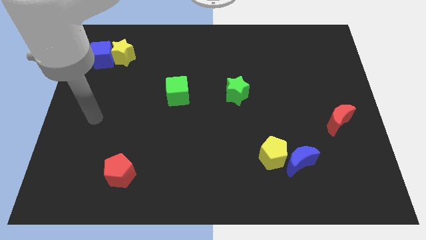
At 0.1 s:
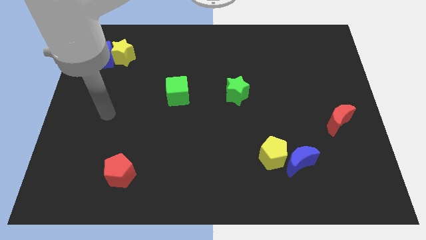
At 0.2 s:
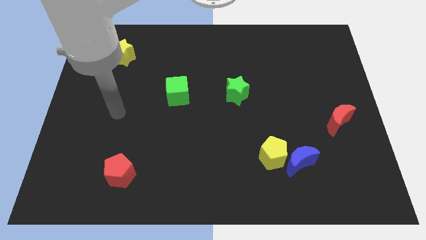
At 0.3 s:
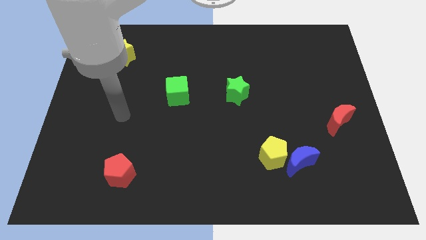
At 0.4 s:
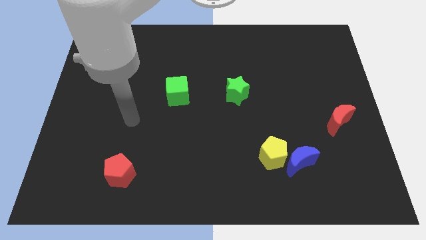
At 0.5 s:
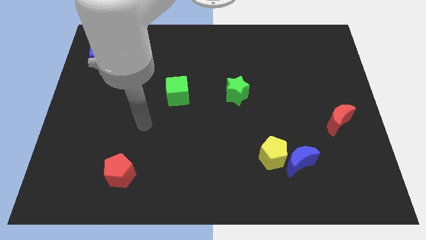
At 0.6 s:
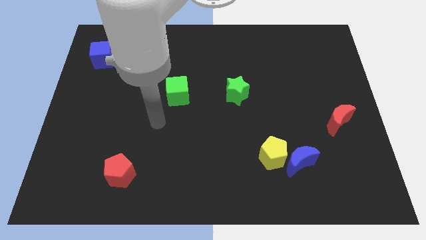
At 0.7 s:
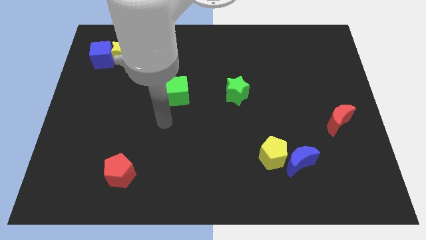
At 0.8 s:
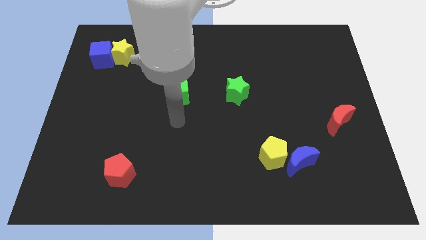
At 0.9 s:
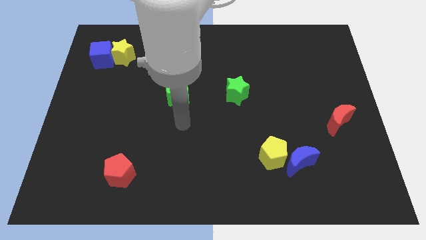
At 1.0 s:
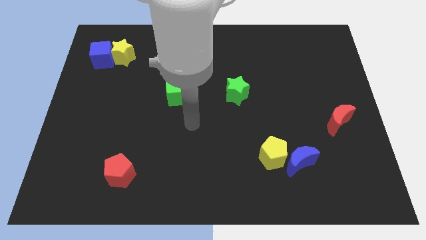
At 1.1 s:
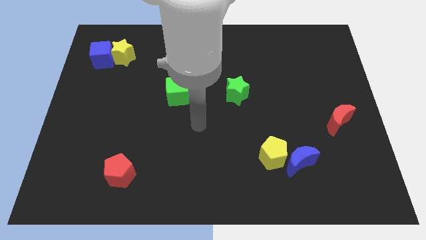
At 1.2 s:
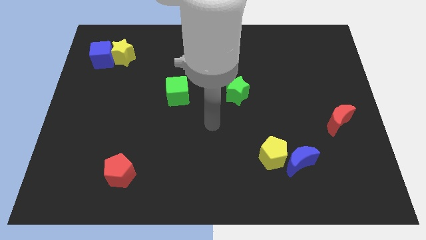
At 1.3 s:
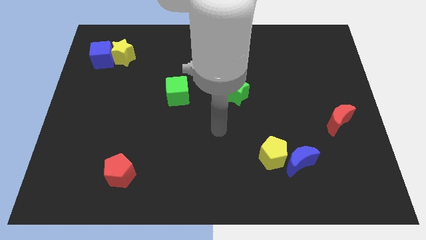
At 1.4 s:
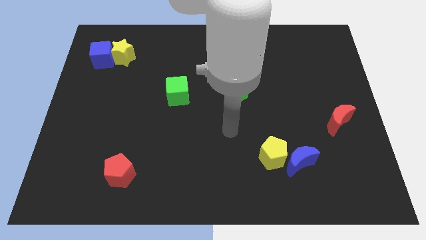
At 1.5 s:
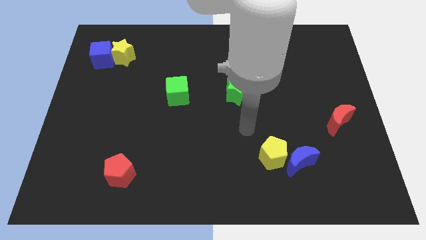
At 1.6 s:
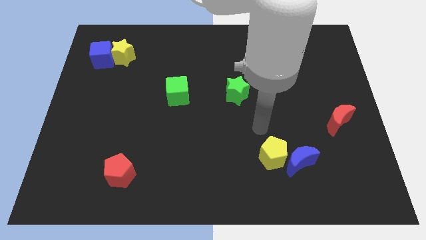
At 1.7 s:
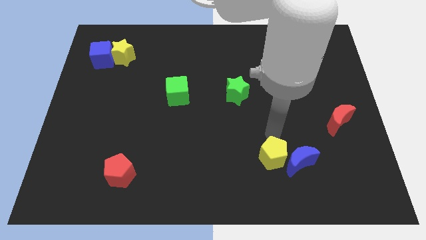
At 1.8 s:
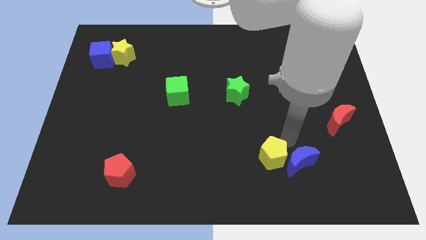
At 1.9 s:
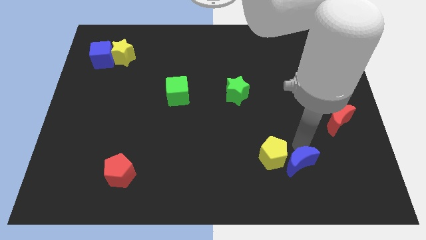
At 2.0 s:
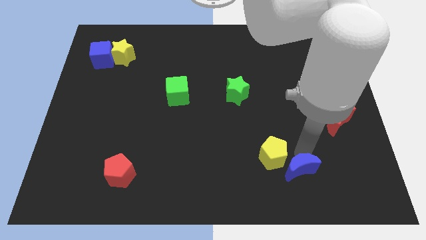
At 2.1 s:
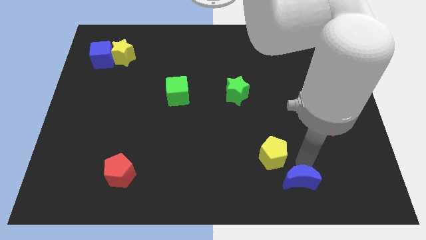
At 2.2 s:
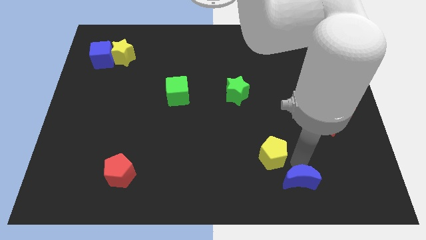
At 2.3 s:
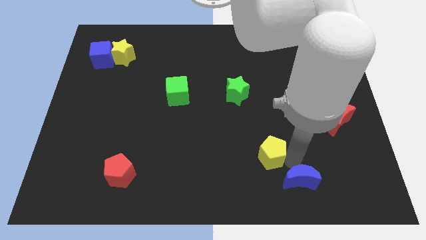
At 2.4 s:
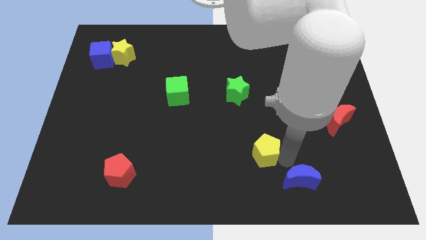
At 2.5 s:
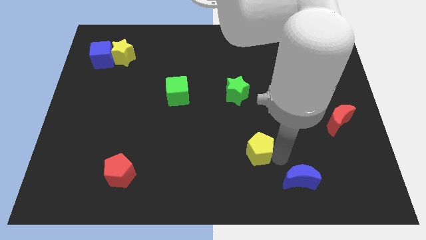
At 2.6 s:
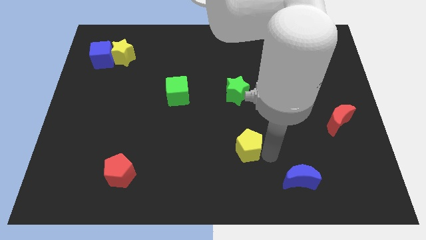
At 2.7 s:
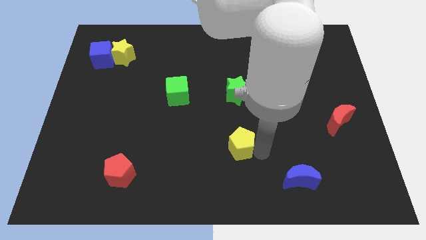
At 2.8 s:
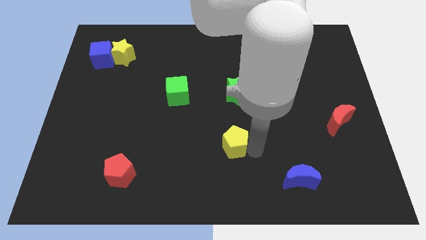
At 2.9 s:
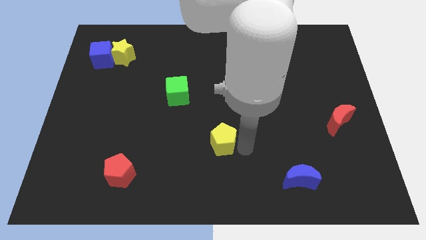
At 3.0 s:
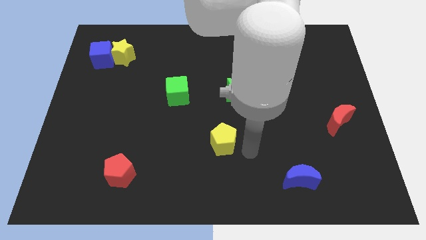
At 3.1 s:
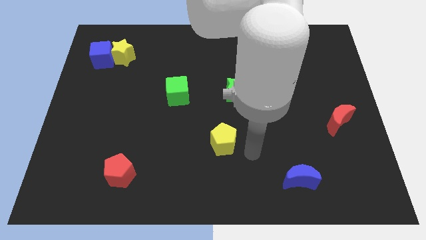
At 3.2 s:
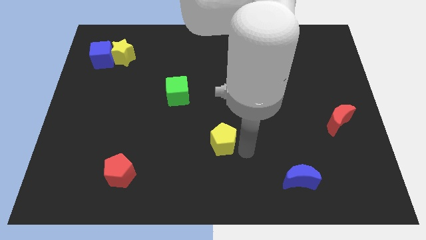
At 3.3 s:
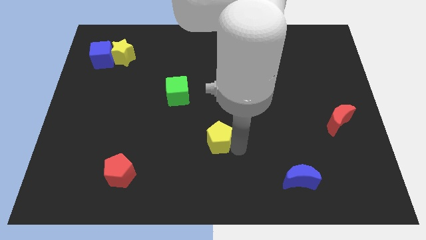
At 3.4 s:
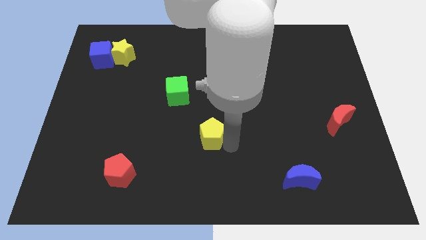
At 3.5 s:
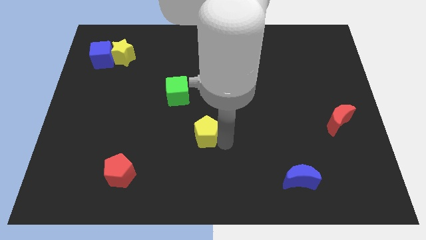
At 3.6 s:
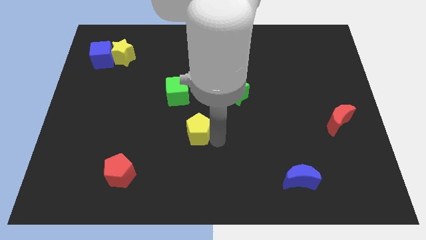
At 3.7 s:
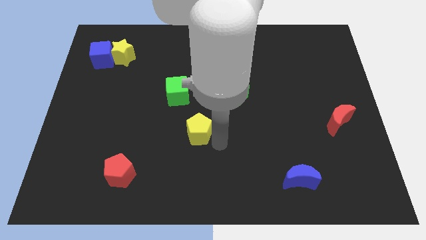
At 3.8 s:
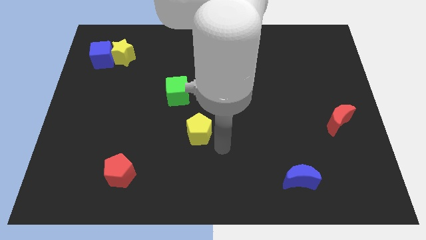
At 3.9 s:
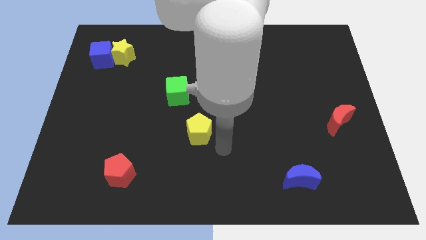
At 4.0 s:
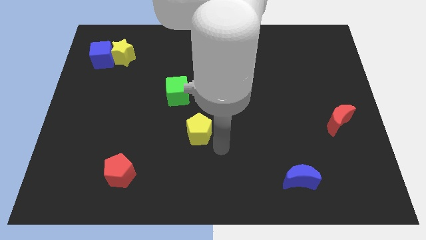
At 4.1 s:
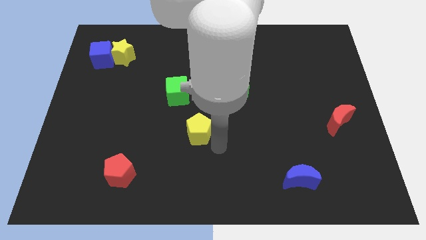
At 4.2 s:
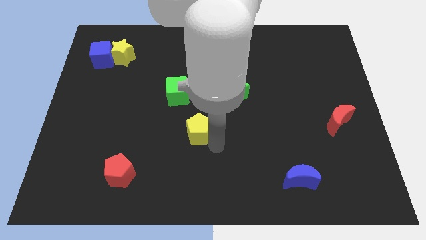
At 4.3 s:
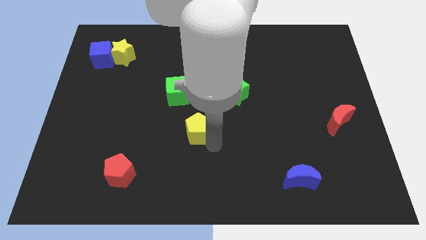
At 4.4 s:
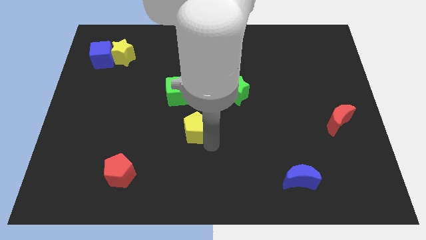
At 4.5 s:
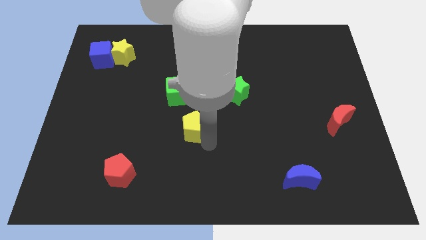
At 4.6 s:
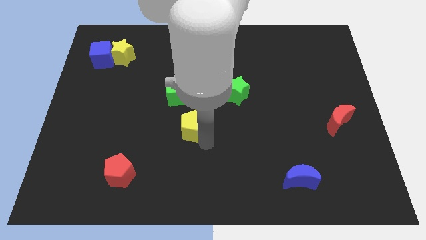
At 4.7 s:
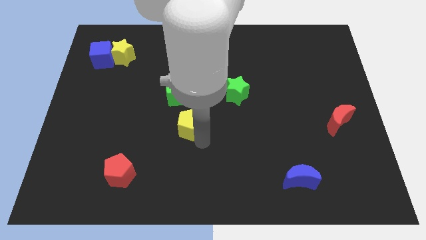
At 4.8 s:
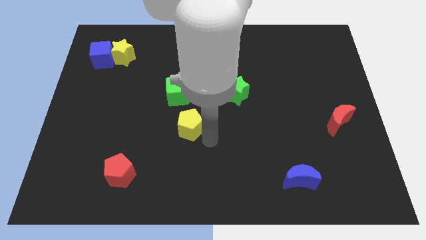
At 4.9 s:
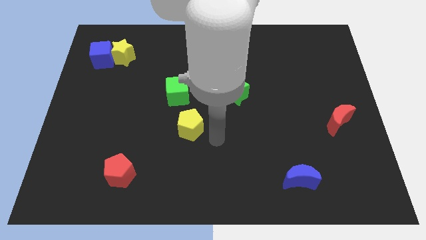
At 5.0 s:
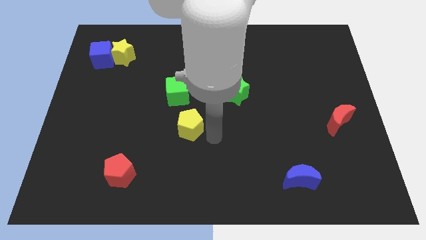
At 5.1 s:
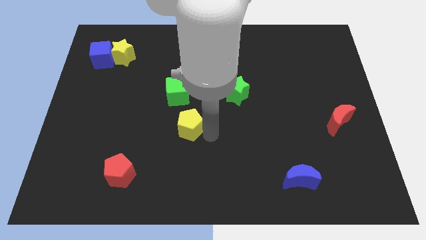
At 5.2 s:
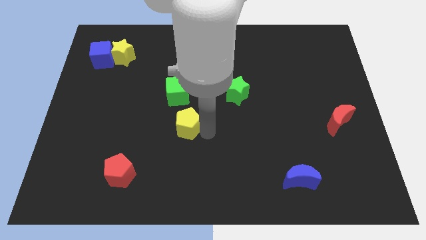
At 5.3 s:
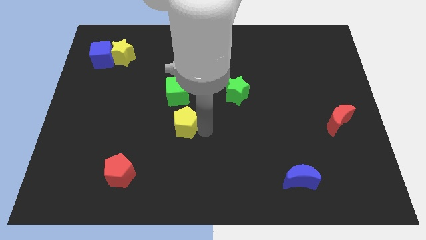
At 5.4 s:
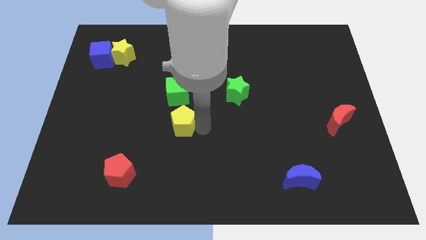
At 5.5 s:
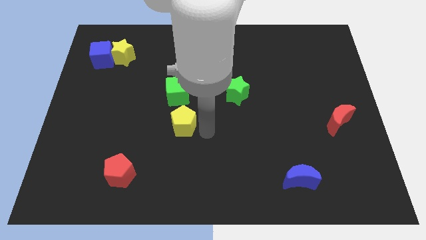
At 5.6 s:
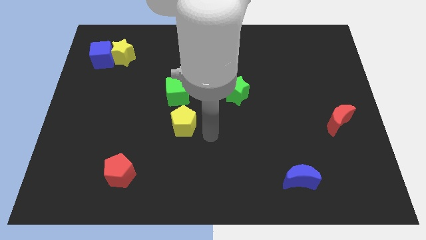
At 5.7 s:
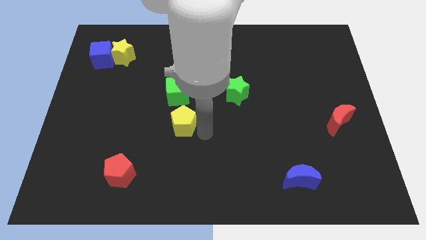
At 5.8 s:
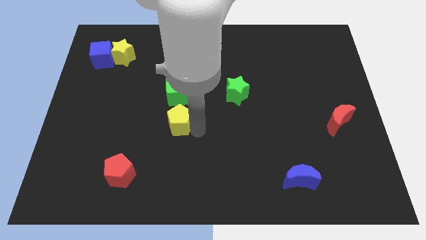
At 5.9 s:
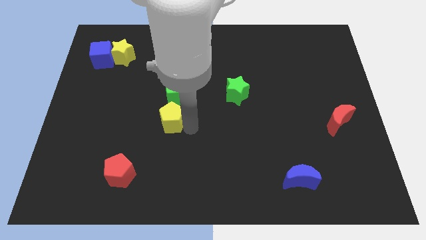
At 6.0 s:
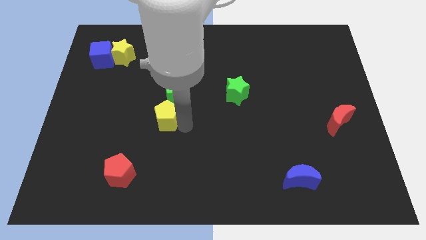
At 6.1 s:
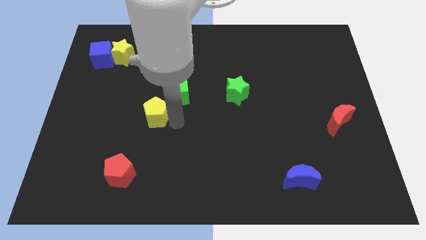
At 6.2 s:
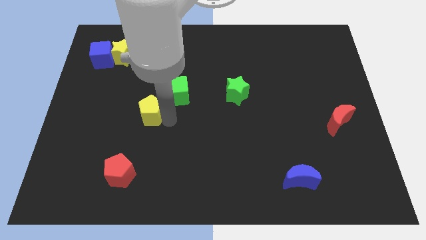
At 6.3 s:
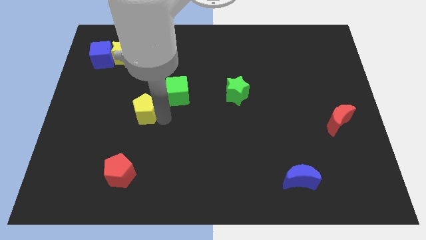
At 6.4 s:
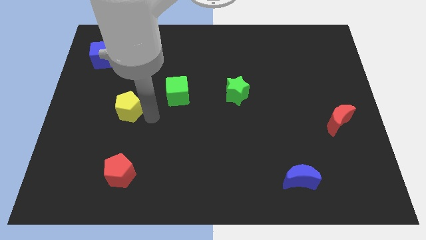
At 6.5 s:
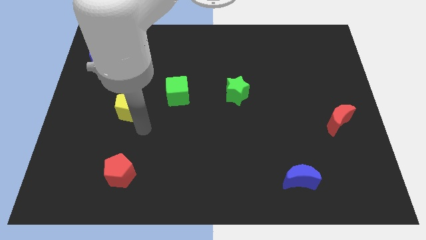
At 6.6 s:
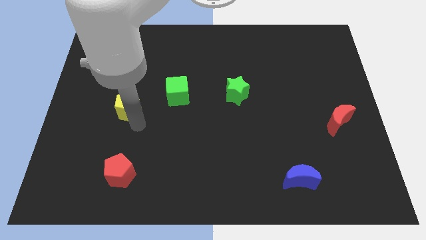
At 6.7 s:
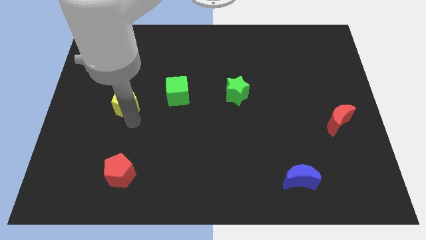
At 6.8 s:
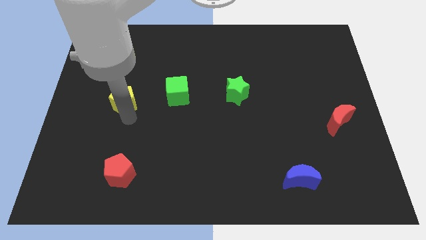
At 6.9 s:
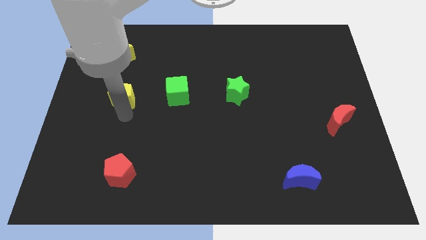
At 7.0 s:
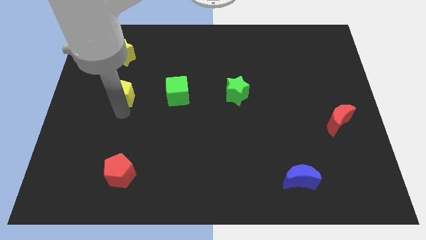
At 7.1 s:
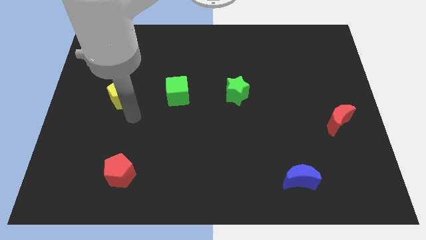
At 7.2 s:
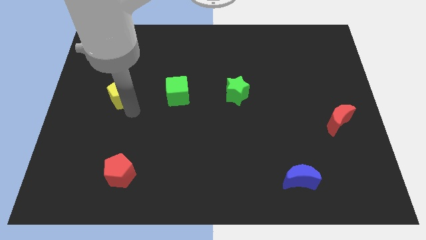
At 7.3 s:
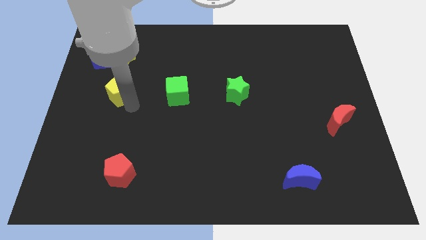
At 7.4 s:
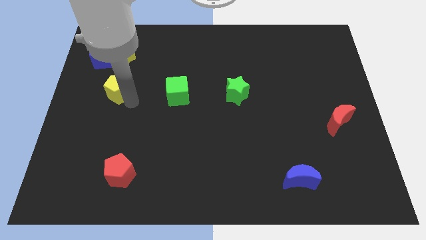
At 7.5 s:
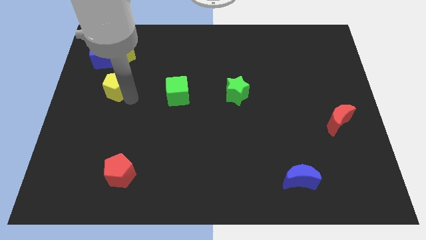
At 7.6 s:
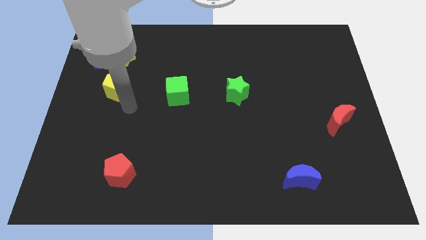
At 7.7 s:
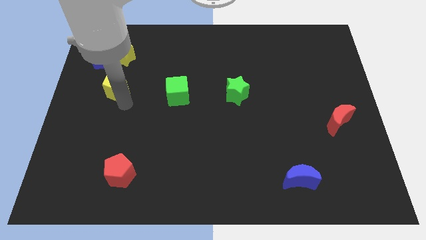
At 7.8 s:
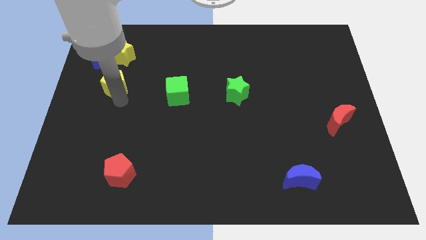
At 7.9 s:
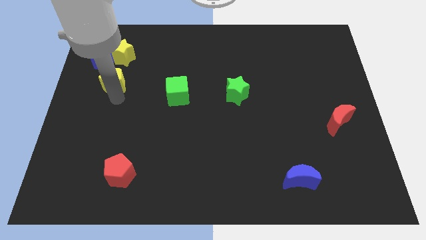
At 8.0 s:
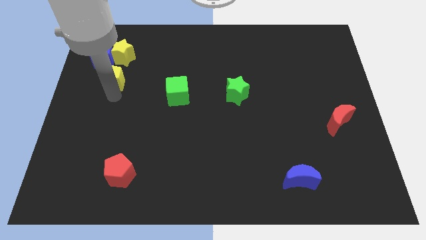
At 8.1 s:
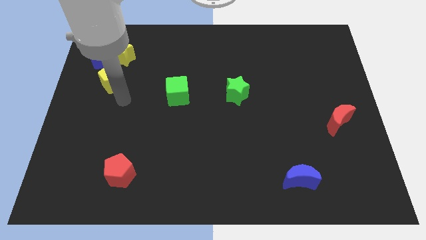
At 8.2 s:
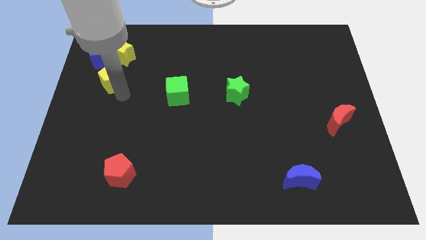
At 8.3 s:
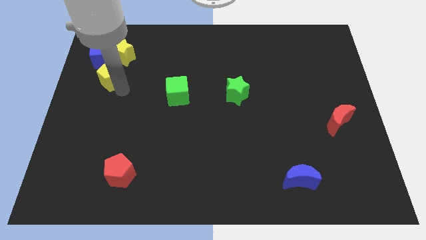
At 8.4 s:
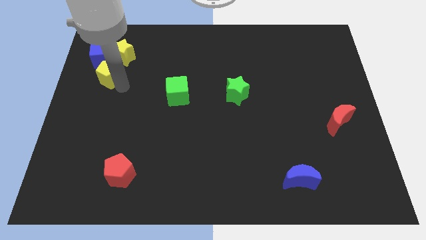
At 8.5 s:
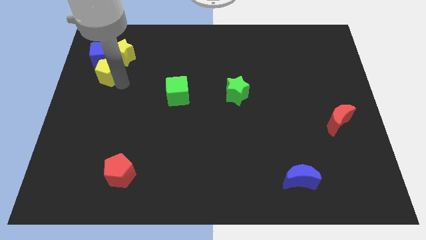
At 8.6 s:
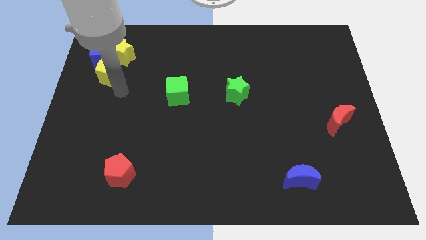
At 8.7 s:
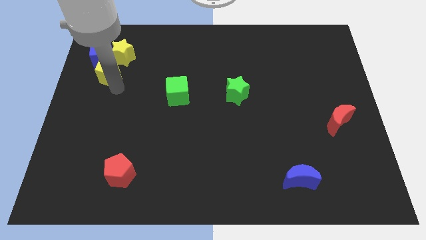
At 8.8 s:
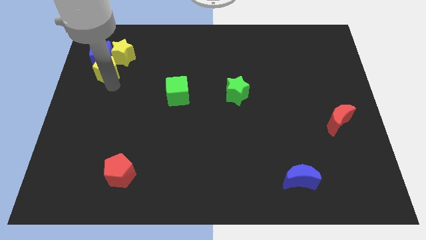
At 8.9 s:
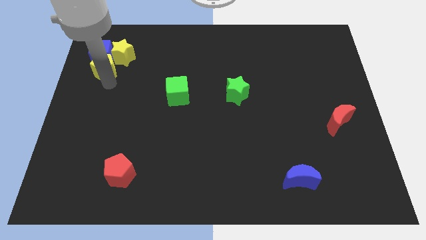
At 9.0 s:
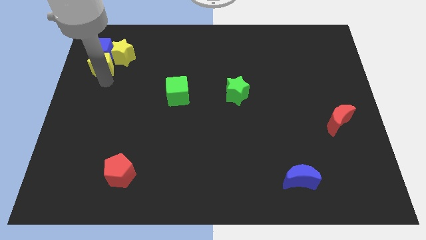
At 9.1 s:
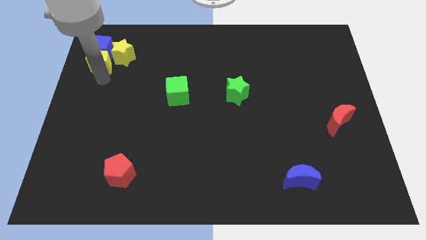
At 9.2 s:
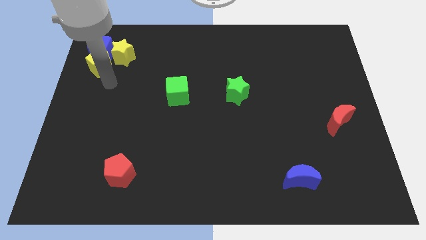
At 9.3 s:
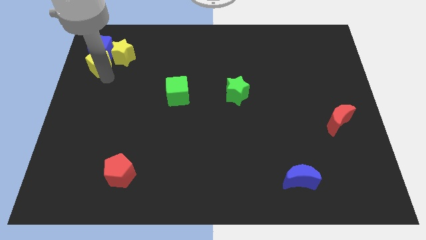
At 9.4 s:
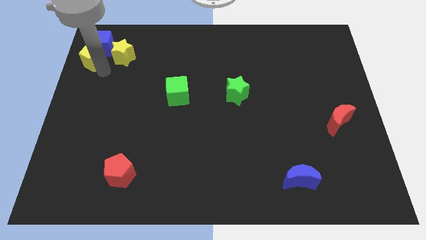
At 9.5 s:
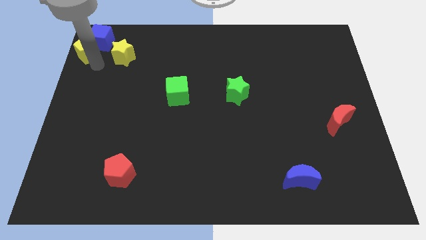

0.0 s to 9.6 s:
put the yellow pentagon to the top left of the board
